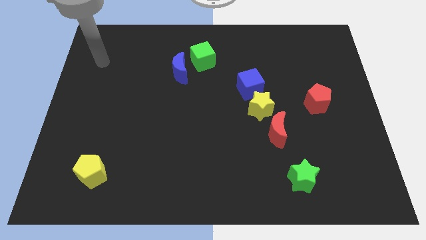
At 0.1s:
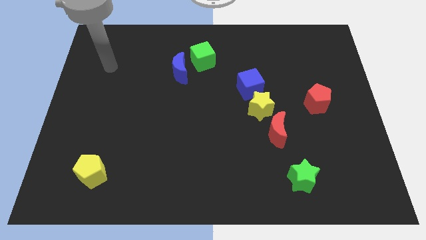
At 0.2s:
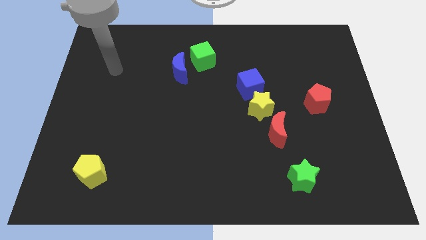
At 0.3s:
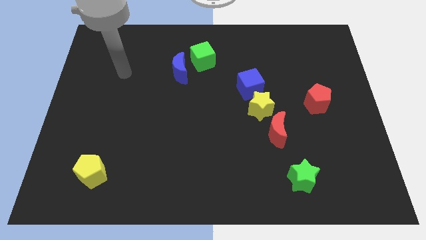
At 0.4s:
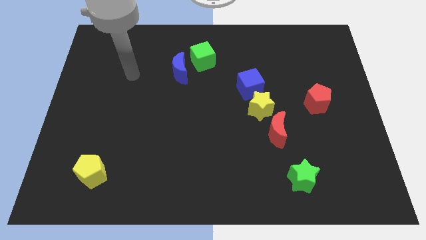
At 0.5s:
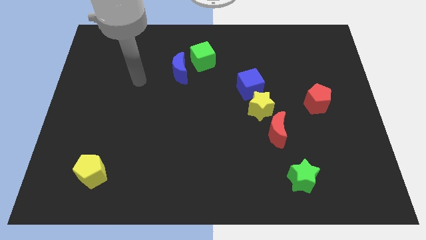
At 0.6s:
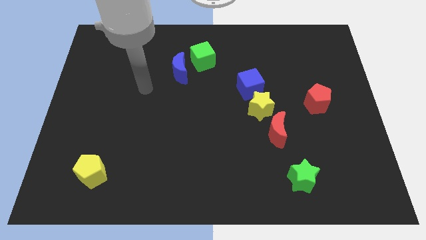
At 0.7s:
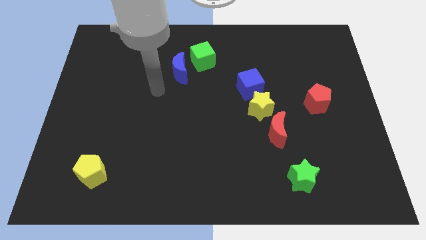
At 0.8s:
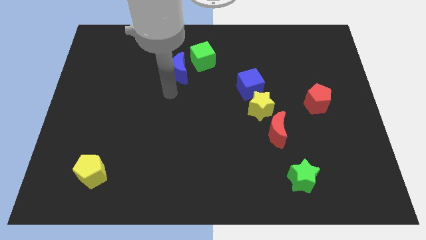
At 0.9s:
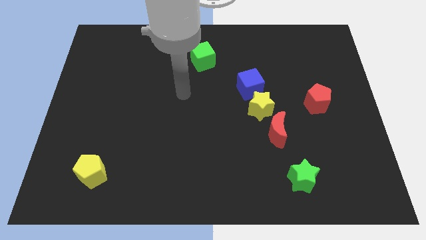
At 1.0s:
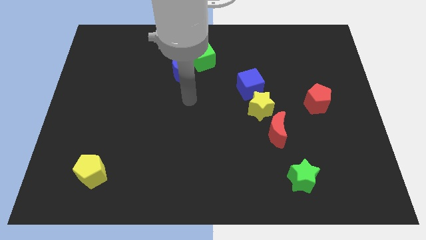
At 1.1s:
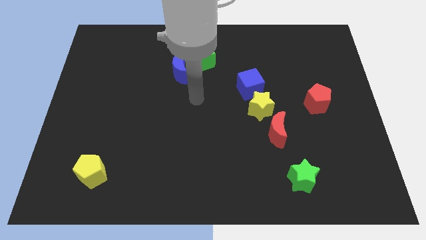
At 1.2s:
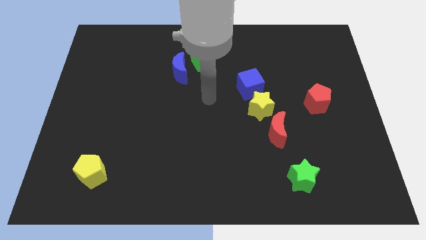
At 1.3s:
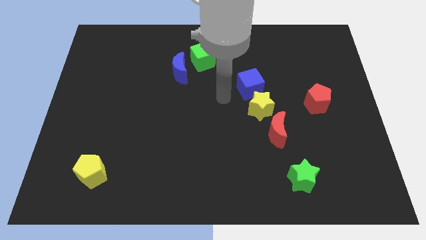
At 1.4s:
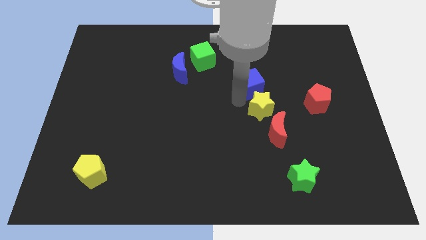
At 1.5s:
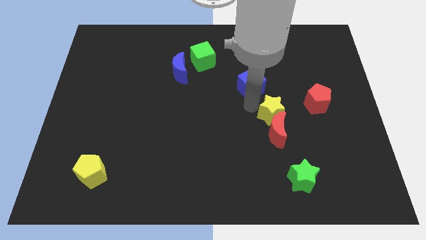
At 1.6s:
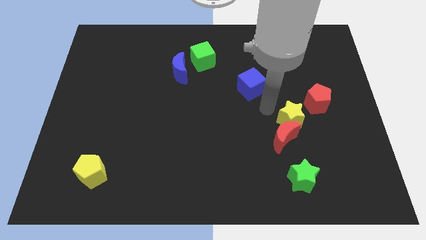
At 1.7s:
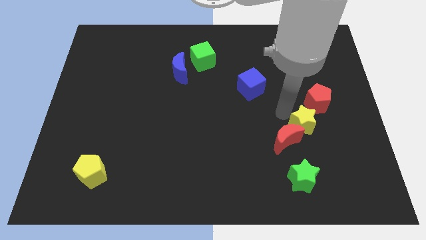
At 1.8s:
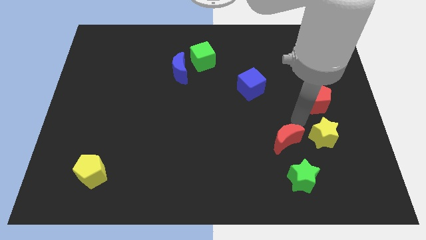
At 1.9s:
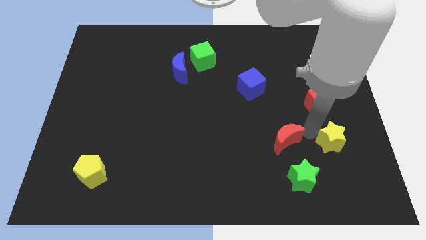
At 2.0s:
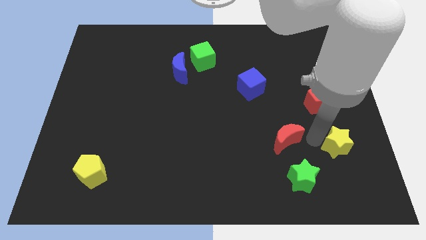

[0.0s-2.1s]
separate the red moon from the yellow star

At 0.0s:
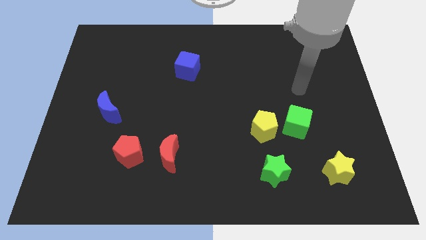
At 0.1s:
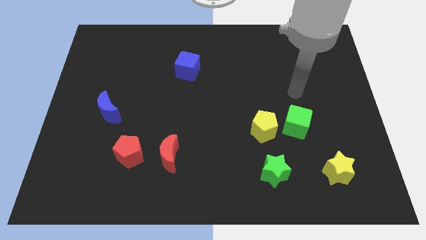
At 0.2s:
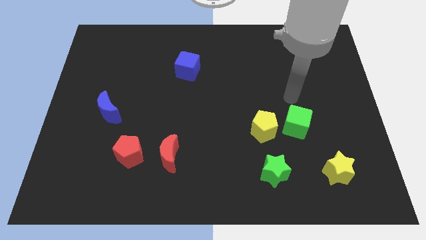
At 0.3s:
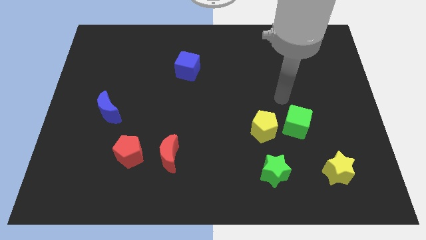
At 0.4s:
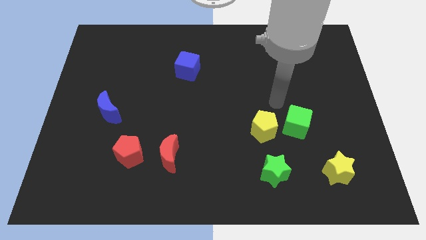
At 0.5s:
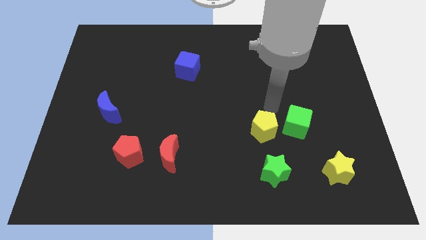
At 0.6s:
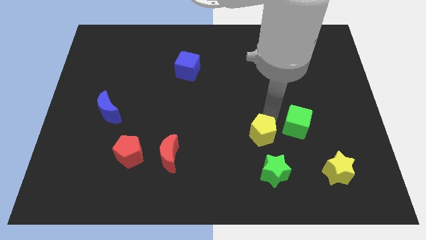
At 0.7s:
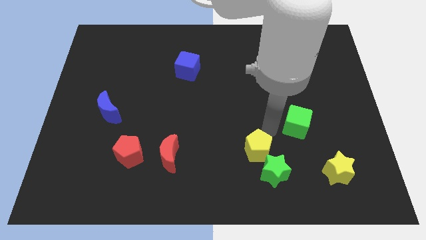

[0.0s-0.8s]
move the green cube away from the yellow pentagon

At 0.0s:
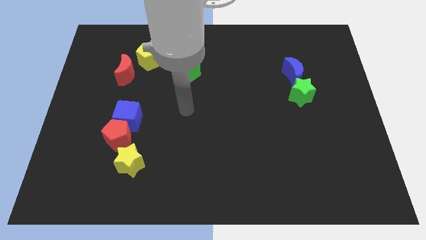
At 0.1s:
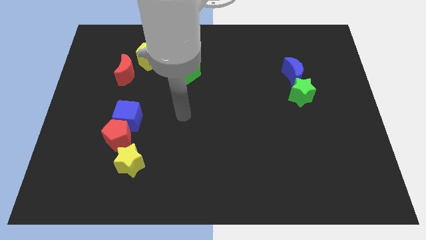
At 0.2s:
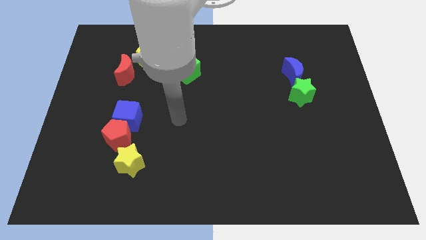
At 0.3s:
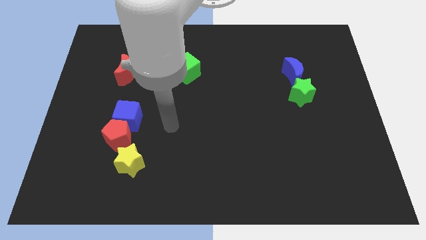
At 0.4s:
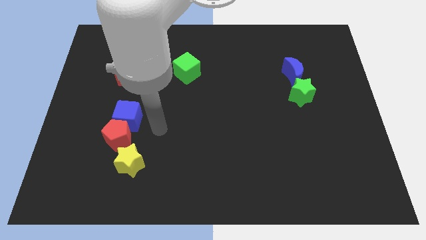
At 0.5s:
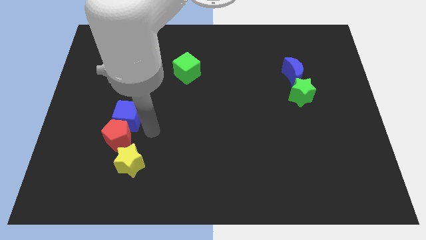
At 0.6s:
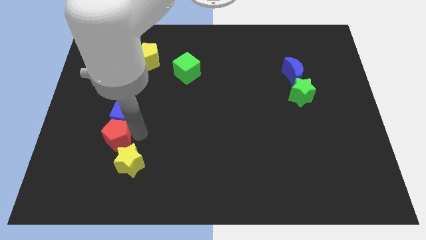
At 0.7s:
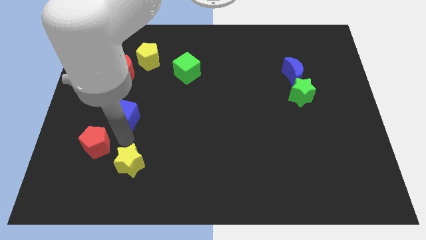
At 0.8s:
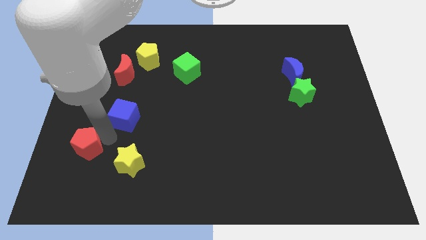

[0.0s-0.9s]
pull the blue cube apart from the red pentagon

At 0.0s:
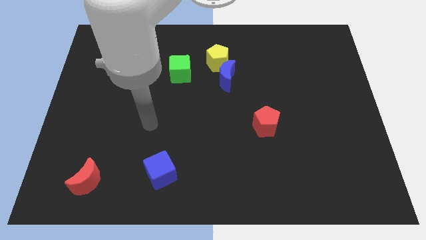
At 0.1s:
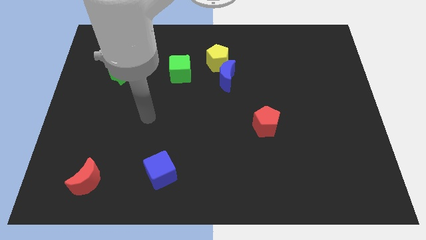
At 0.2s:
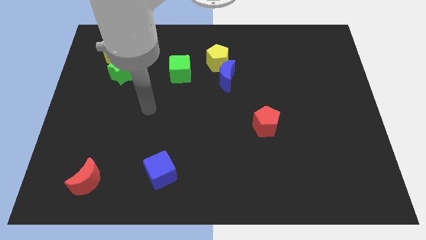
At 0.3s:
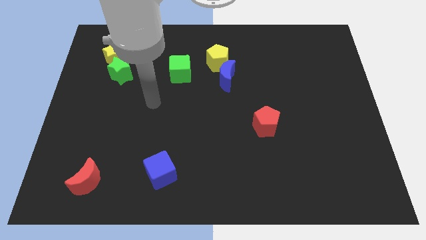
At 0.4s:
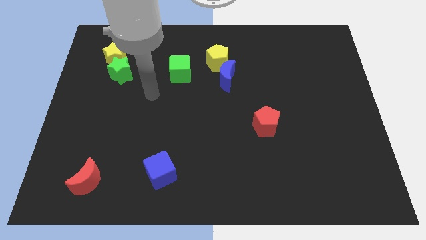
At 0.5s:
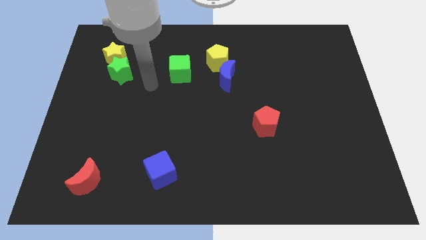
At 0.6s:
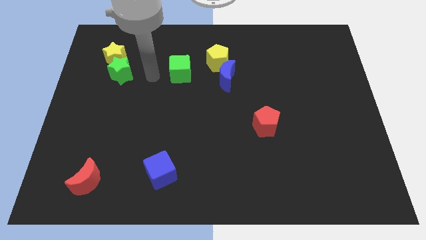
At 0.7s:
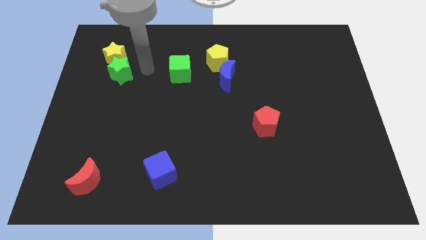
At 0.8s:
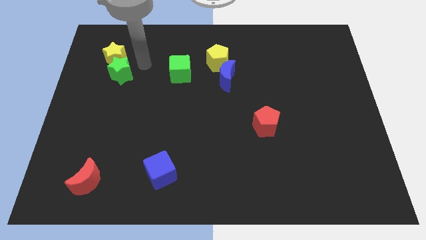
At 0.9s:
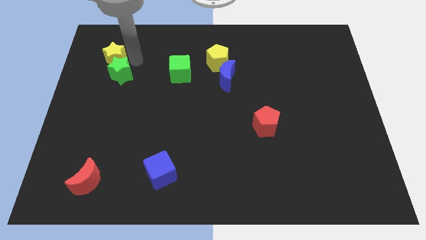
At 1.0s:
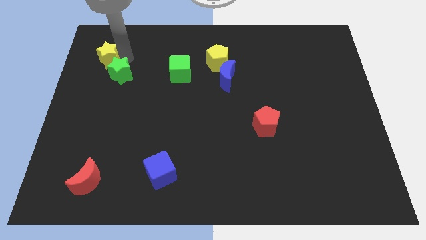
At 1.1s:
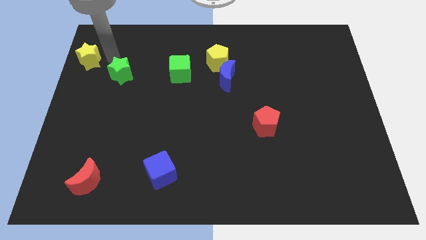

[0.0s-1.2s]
separate the green star from the yellow star

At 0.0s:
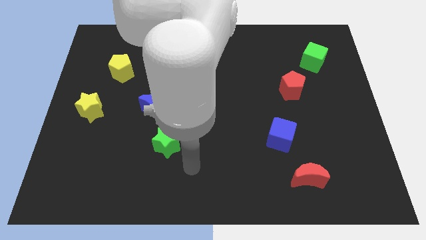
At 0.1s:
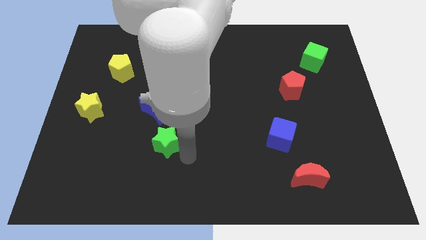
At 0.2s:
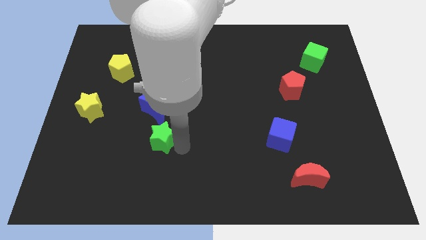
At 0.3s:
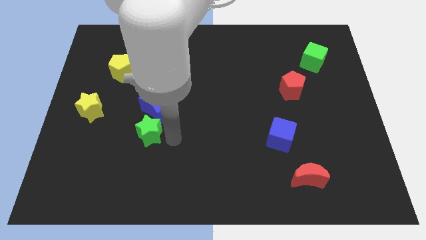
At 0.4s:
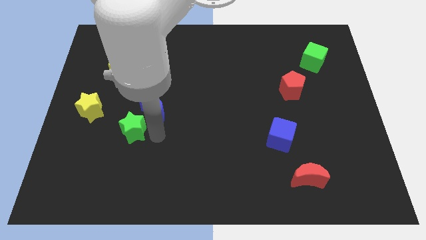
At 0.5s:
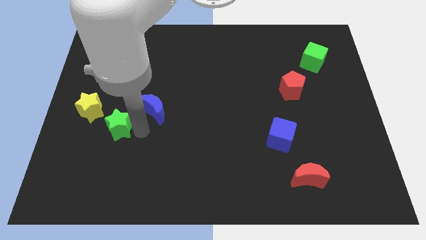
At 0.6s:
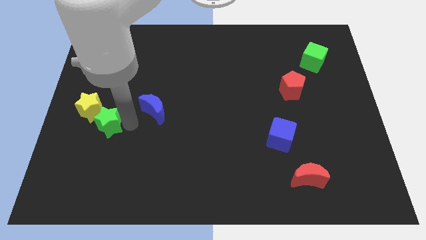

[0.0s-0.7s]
separate the blue moon from the green star

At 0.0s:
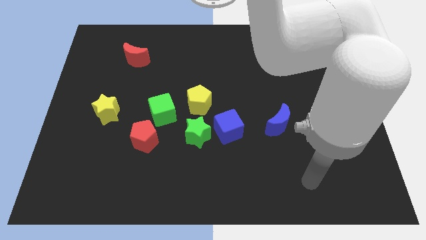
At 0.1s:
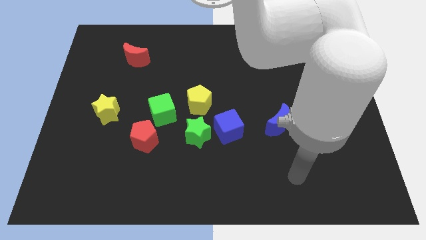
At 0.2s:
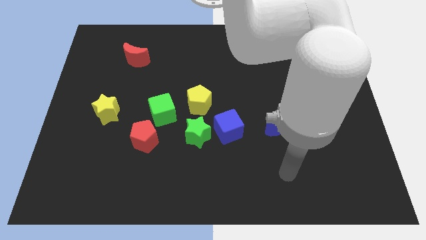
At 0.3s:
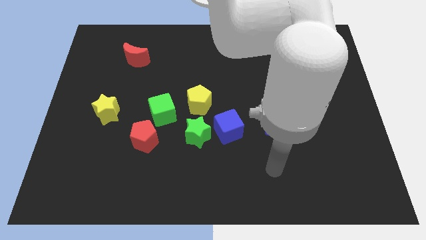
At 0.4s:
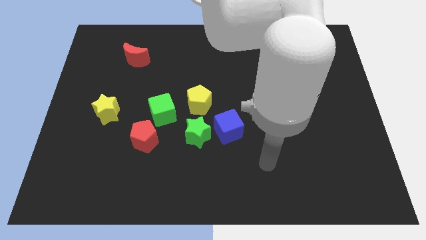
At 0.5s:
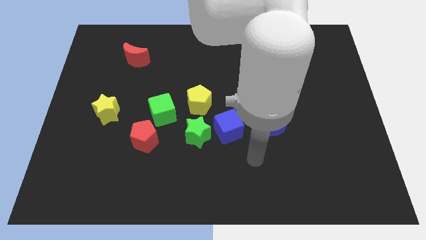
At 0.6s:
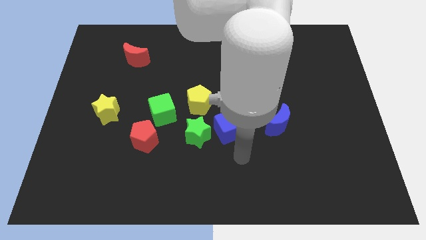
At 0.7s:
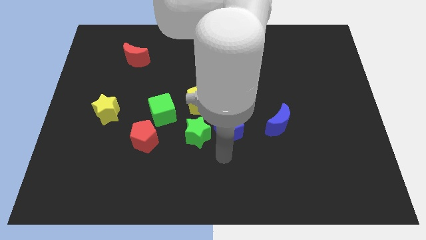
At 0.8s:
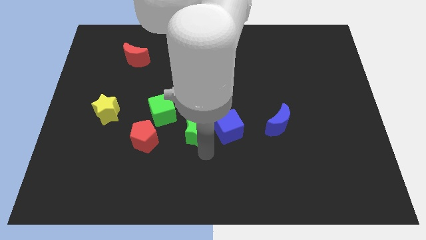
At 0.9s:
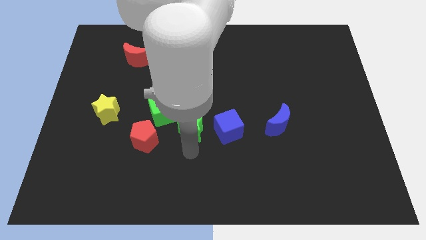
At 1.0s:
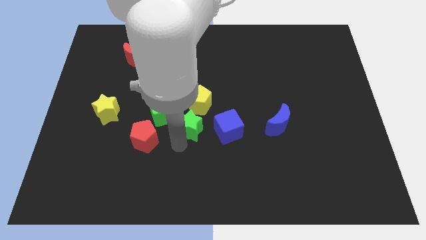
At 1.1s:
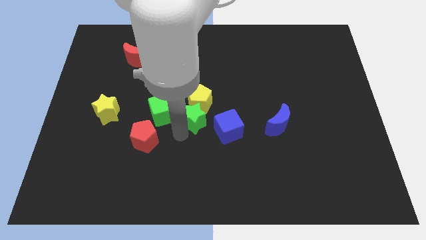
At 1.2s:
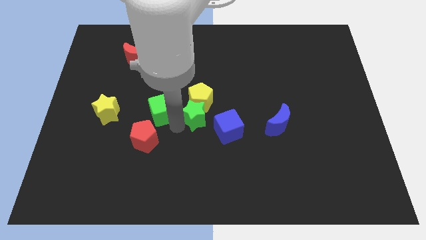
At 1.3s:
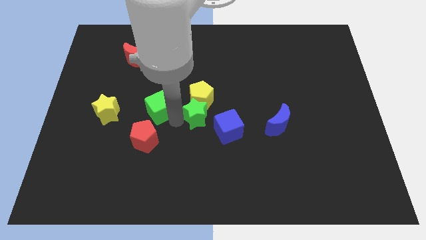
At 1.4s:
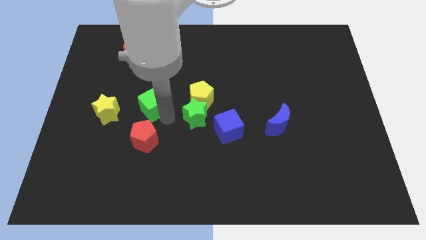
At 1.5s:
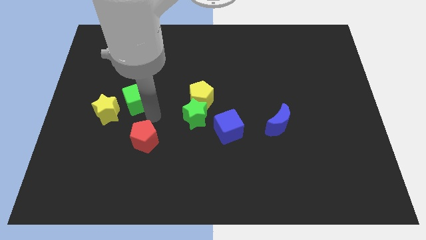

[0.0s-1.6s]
separate the red pentagon from the green cube

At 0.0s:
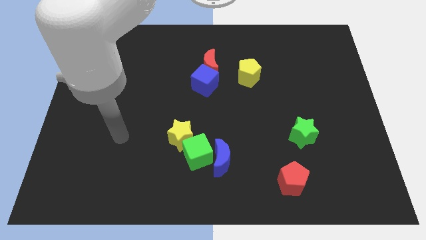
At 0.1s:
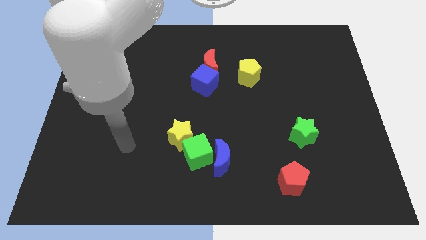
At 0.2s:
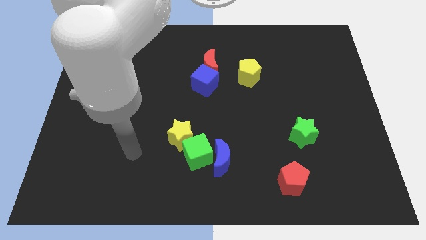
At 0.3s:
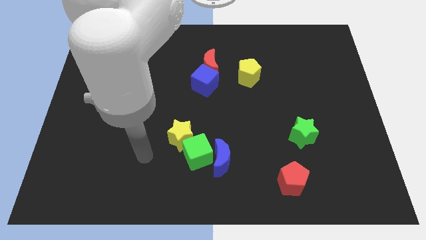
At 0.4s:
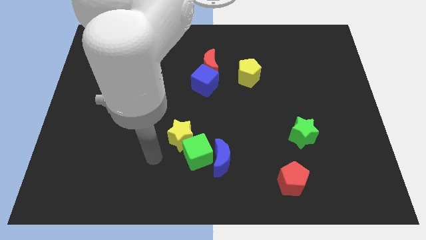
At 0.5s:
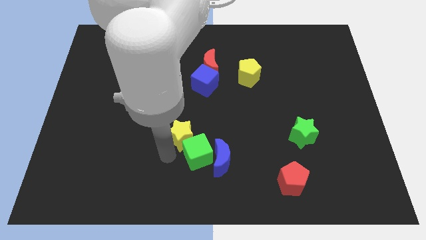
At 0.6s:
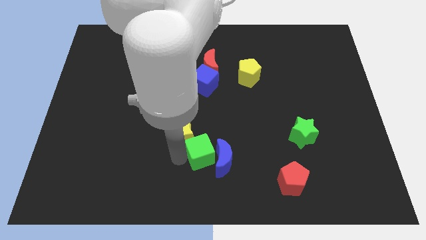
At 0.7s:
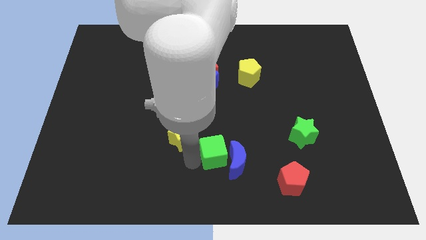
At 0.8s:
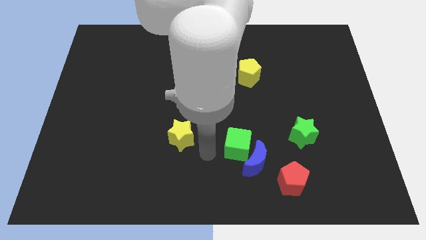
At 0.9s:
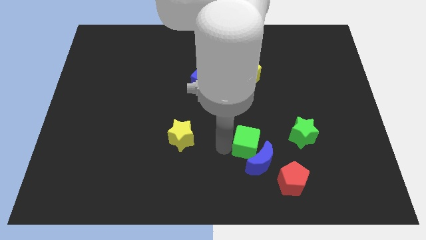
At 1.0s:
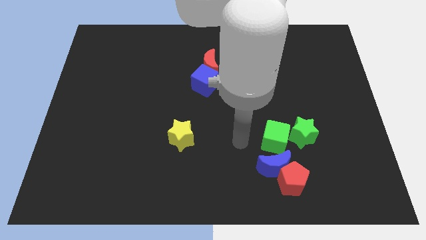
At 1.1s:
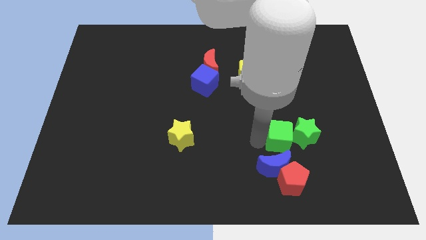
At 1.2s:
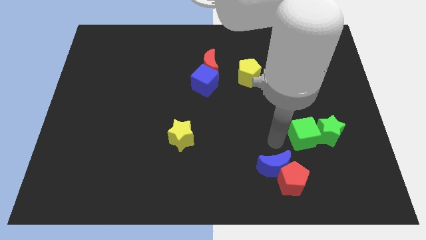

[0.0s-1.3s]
pull the blue moon apart from the green cube

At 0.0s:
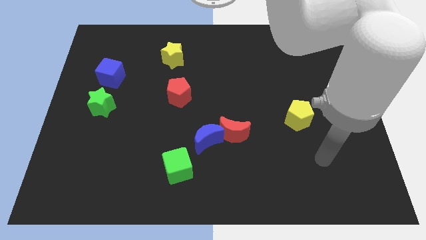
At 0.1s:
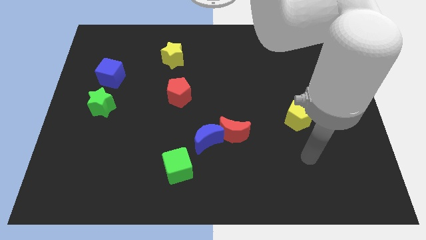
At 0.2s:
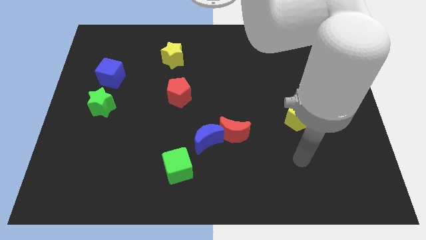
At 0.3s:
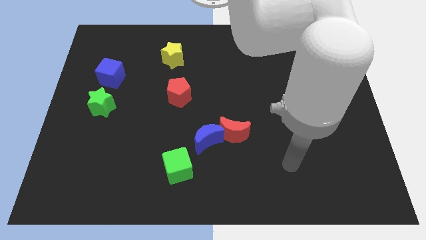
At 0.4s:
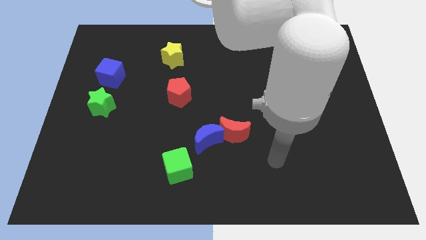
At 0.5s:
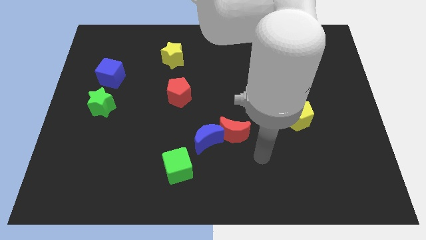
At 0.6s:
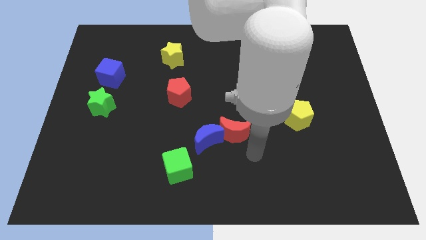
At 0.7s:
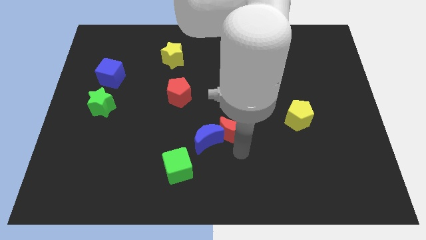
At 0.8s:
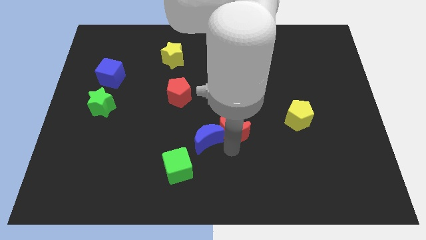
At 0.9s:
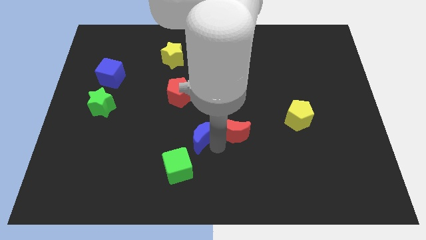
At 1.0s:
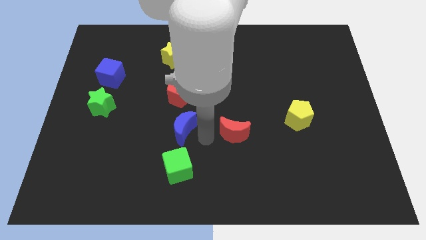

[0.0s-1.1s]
pull the red moon apart from the blue moon
